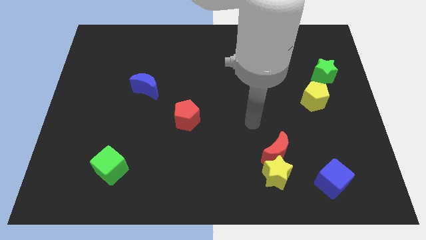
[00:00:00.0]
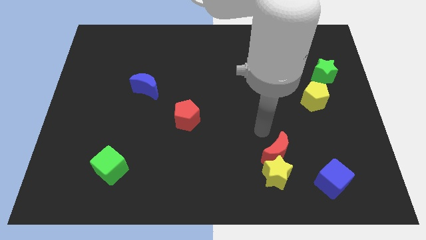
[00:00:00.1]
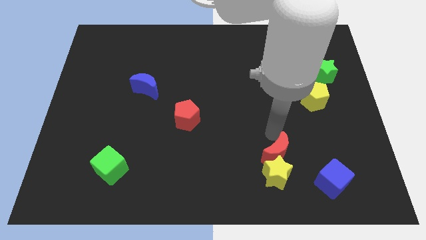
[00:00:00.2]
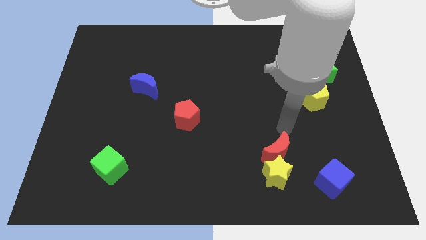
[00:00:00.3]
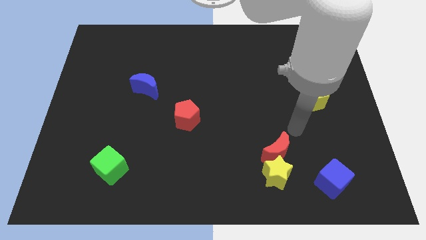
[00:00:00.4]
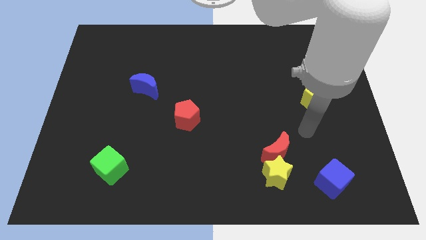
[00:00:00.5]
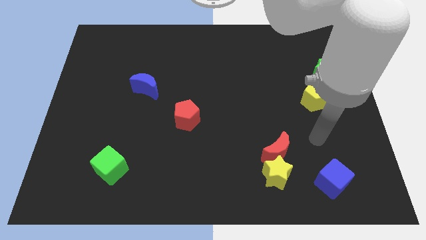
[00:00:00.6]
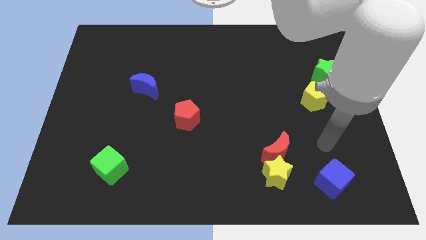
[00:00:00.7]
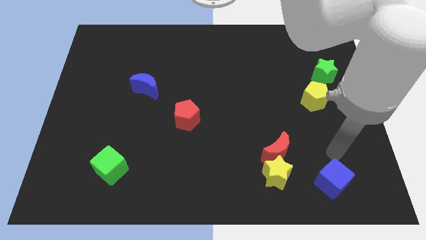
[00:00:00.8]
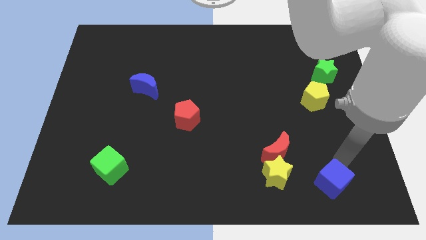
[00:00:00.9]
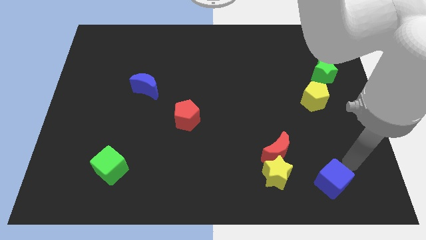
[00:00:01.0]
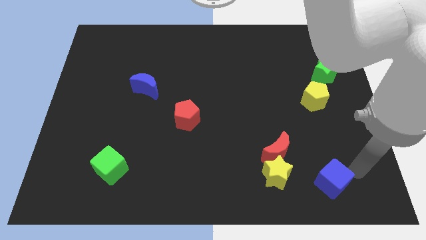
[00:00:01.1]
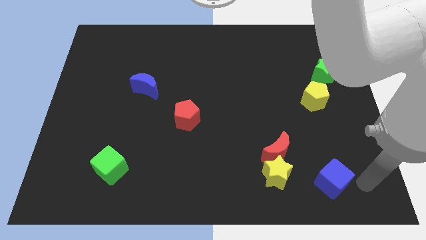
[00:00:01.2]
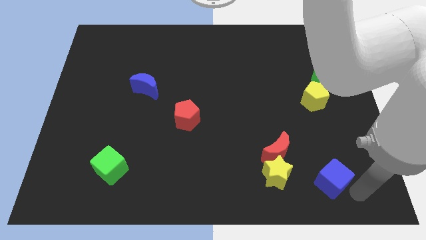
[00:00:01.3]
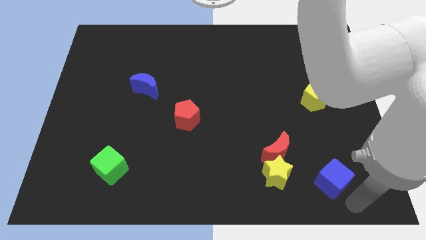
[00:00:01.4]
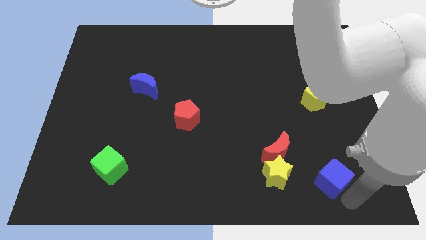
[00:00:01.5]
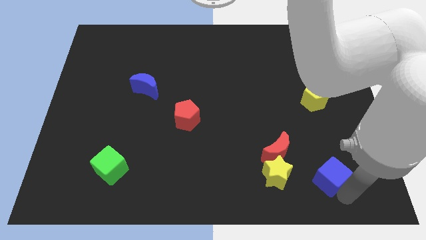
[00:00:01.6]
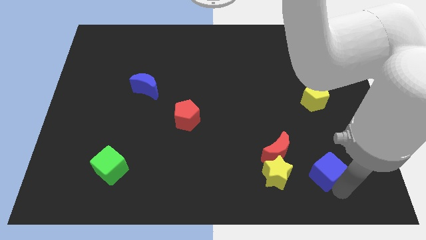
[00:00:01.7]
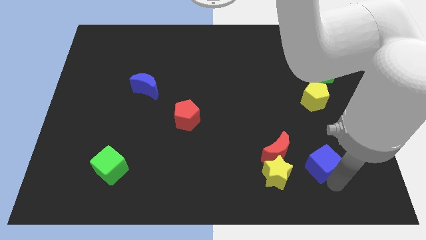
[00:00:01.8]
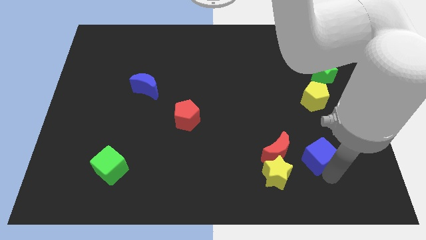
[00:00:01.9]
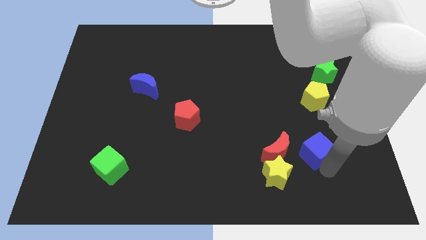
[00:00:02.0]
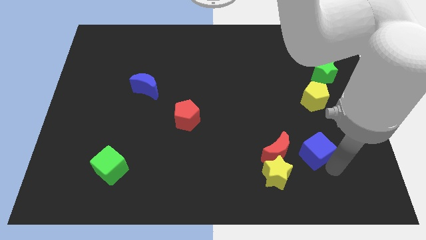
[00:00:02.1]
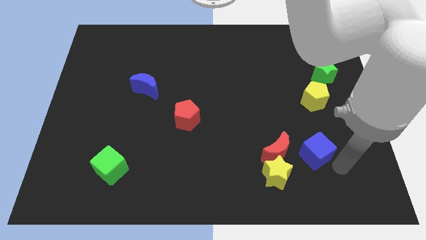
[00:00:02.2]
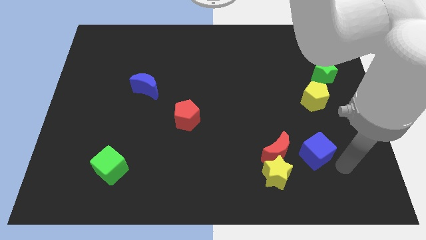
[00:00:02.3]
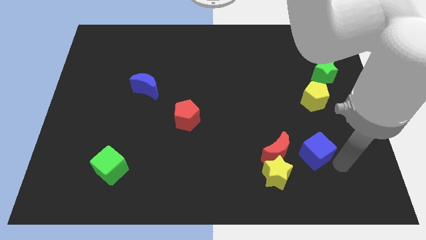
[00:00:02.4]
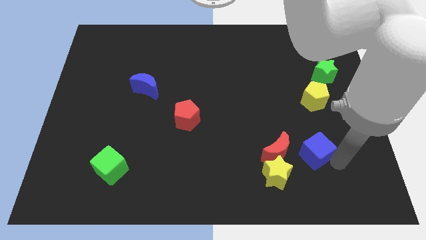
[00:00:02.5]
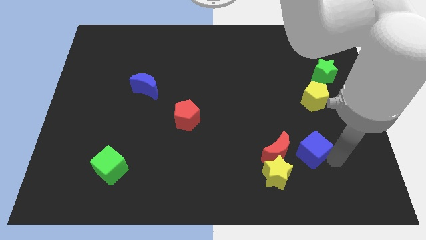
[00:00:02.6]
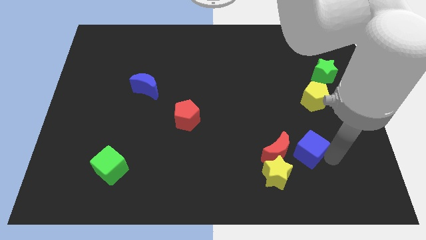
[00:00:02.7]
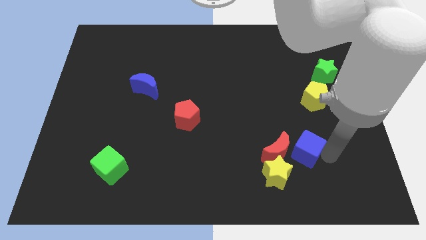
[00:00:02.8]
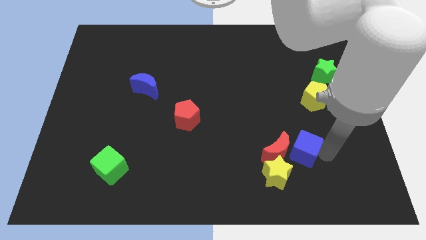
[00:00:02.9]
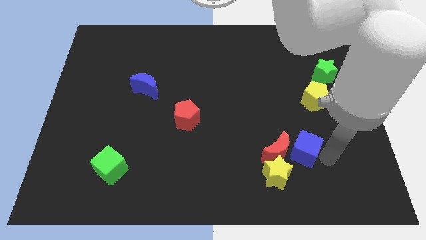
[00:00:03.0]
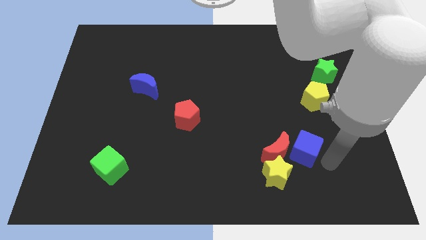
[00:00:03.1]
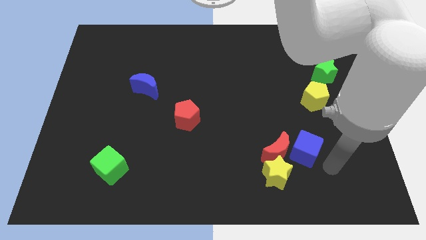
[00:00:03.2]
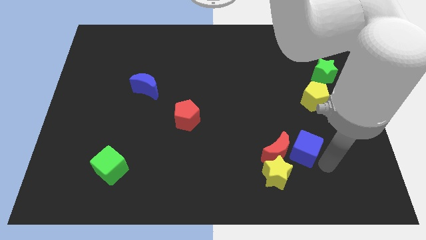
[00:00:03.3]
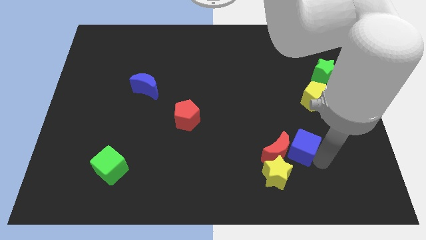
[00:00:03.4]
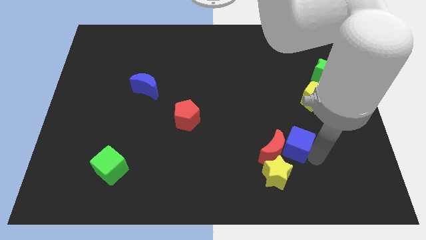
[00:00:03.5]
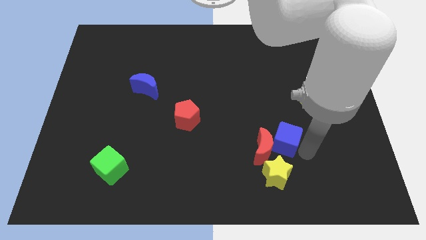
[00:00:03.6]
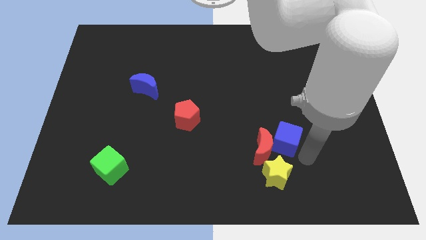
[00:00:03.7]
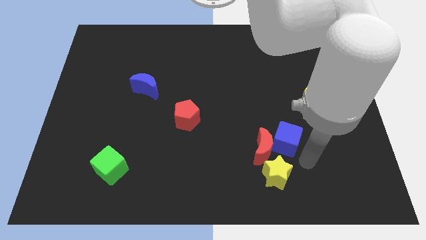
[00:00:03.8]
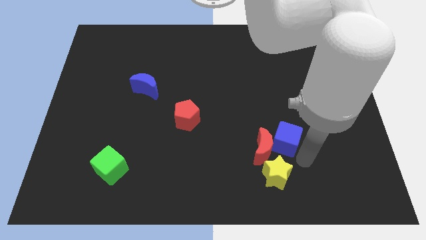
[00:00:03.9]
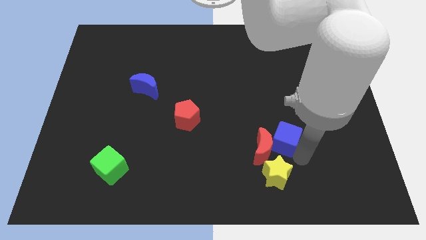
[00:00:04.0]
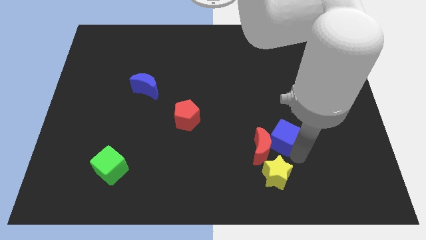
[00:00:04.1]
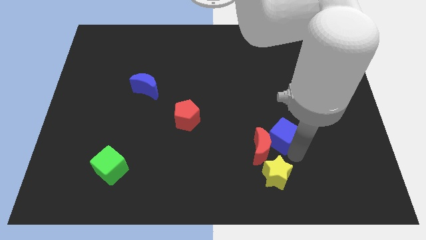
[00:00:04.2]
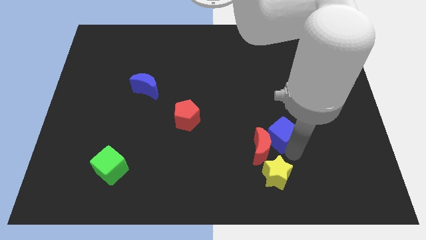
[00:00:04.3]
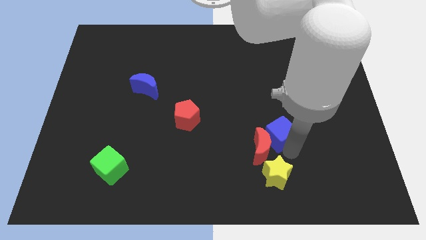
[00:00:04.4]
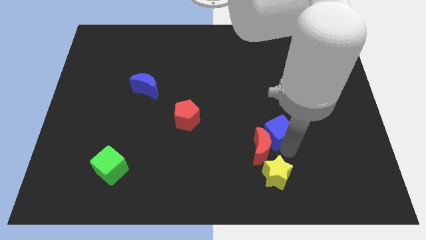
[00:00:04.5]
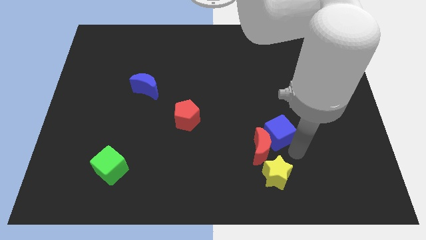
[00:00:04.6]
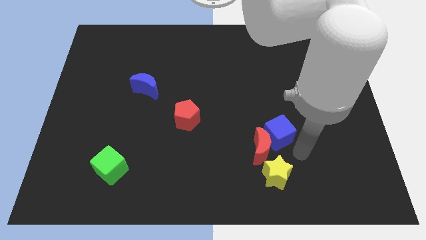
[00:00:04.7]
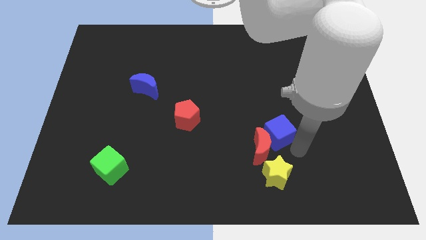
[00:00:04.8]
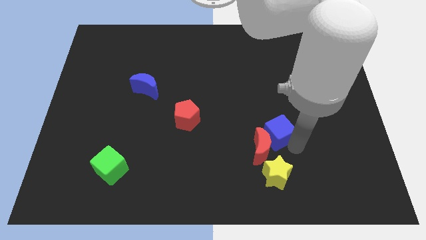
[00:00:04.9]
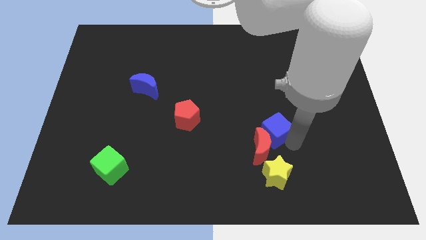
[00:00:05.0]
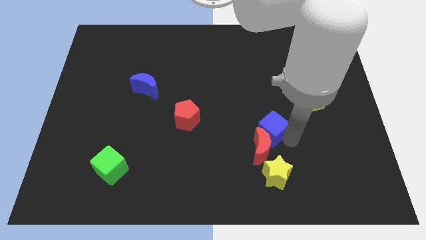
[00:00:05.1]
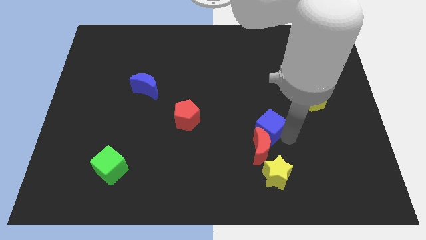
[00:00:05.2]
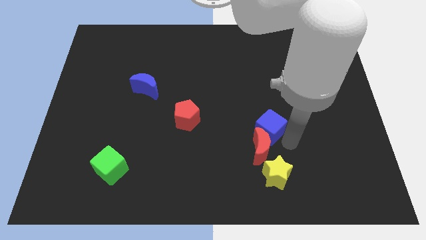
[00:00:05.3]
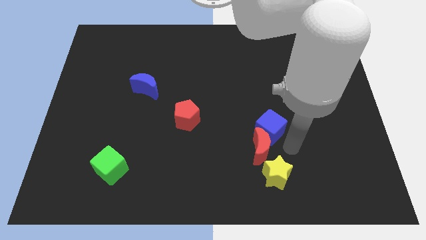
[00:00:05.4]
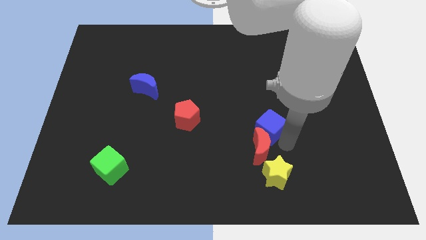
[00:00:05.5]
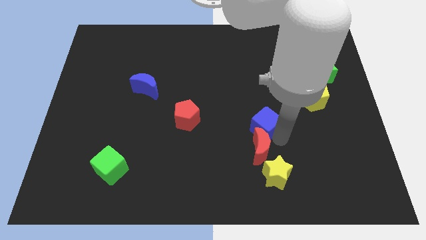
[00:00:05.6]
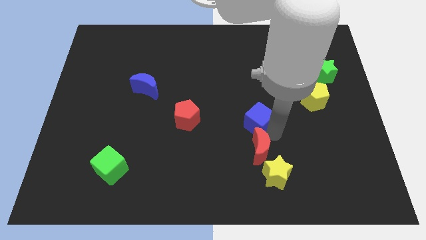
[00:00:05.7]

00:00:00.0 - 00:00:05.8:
move the blue cube upwards and then to the left

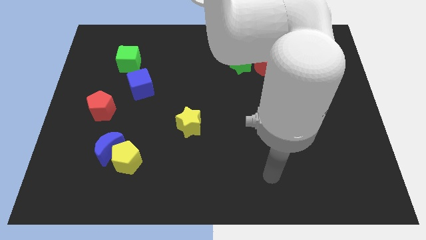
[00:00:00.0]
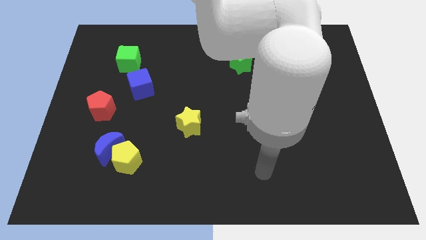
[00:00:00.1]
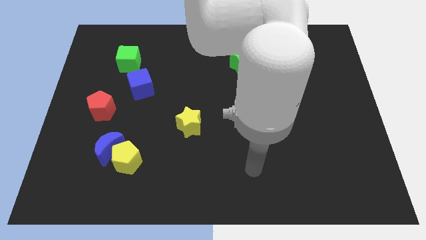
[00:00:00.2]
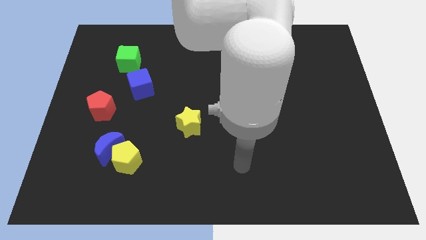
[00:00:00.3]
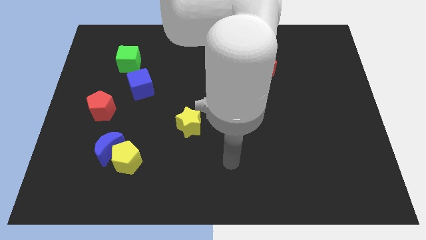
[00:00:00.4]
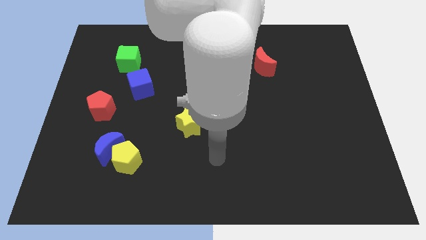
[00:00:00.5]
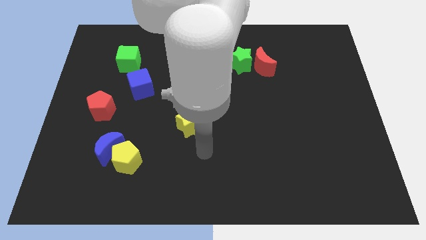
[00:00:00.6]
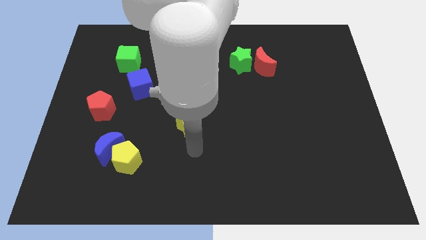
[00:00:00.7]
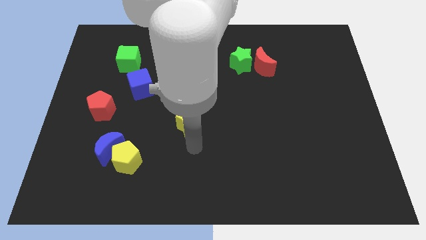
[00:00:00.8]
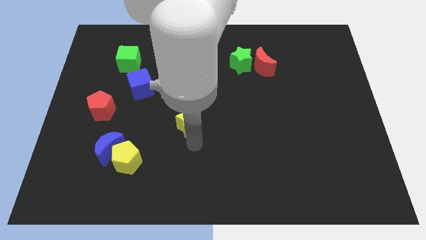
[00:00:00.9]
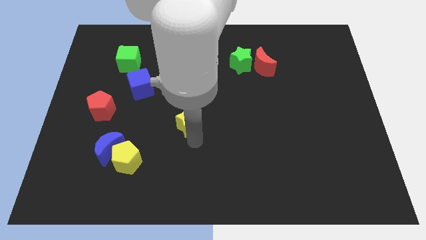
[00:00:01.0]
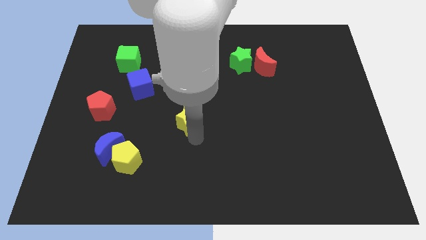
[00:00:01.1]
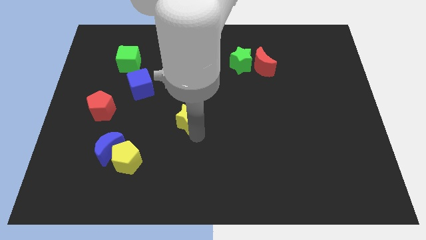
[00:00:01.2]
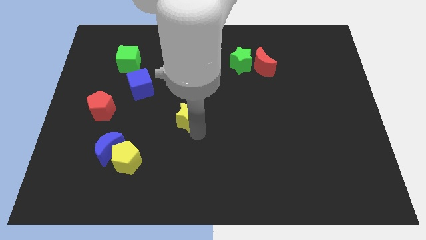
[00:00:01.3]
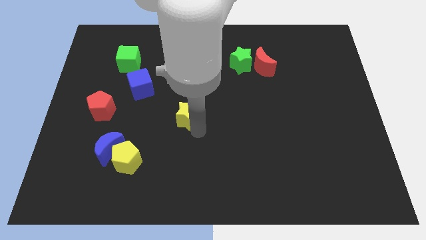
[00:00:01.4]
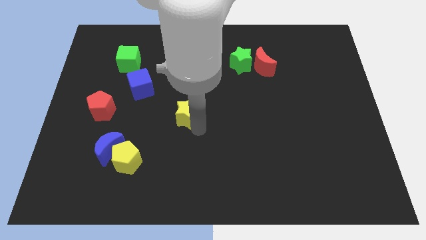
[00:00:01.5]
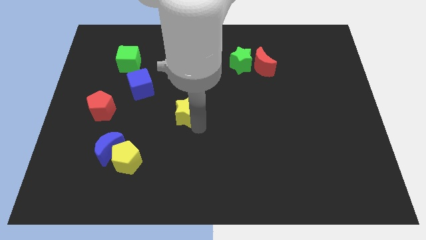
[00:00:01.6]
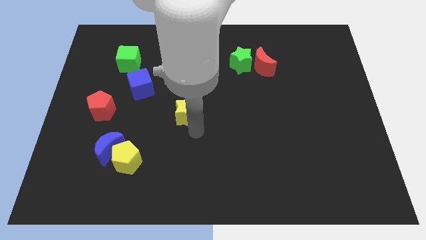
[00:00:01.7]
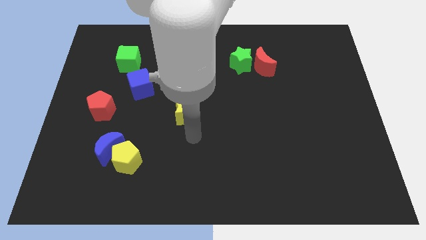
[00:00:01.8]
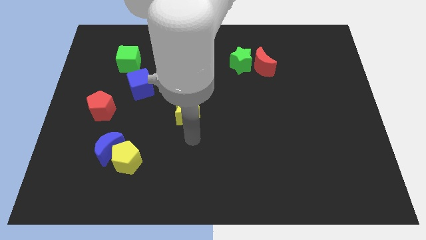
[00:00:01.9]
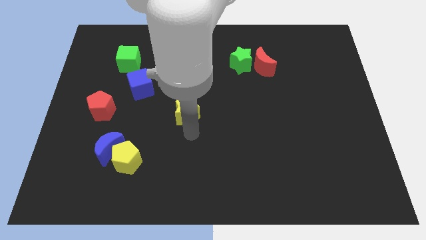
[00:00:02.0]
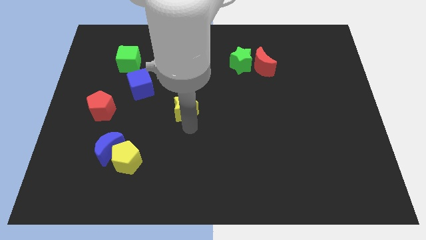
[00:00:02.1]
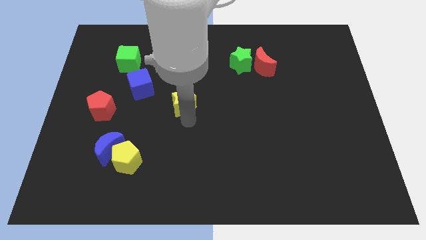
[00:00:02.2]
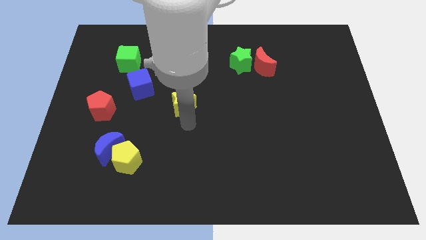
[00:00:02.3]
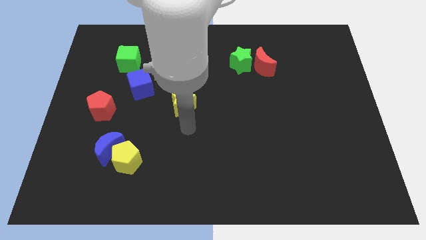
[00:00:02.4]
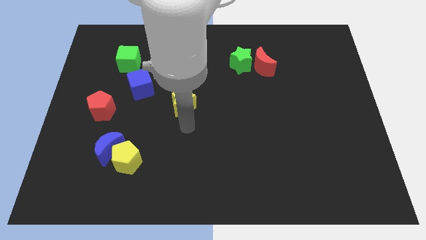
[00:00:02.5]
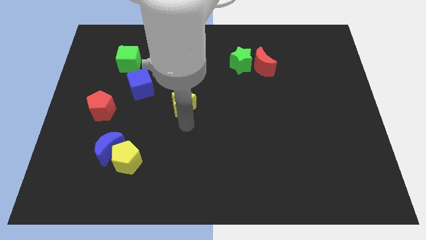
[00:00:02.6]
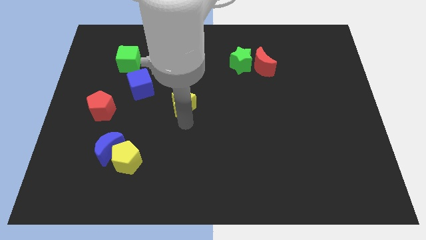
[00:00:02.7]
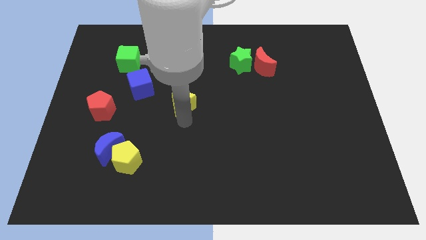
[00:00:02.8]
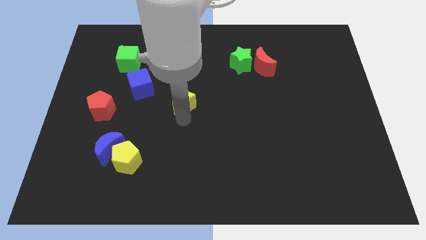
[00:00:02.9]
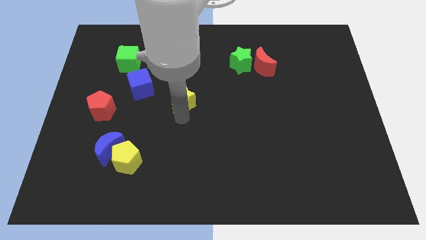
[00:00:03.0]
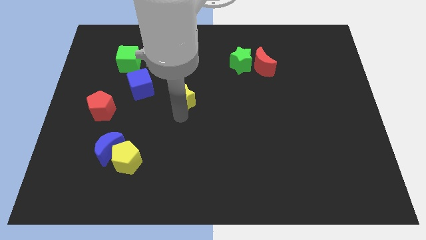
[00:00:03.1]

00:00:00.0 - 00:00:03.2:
slide the yellow star upwards somewhat
